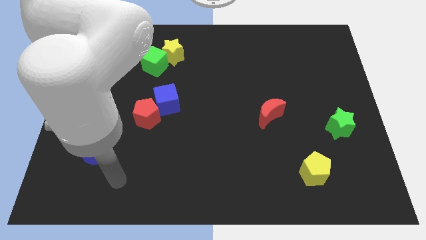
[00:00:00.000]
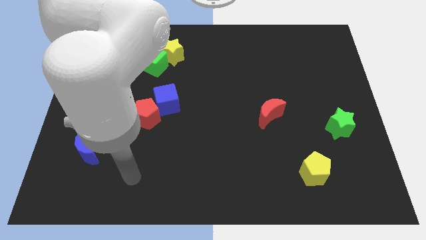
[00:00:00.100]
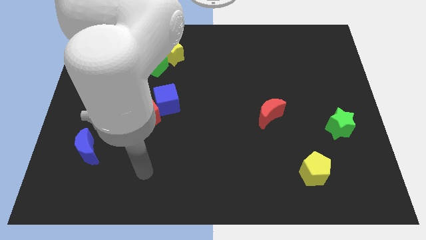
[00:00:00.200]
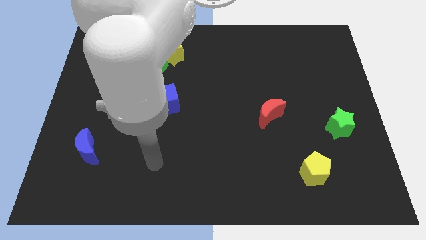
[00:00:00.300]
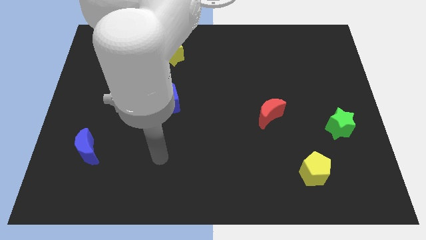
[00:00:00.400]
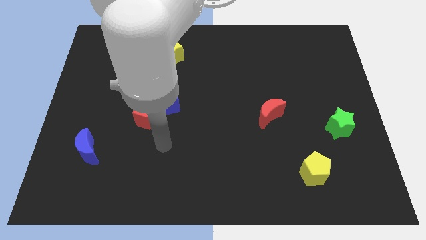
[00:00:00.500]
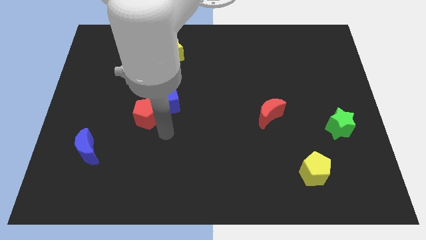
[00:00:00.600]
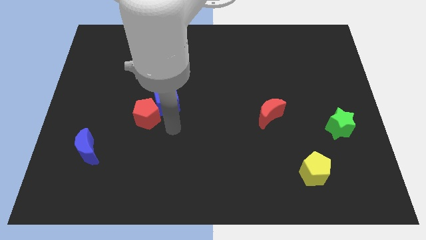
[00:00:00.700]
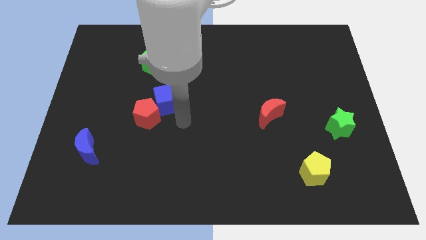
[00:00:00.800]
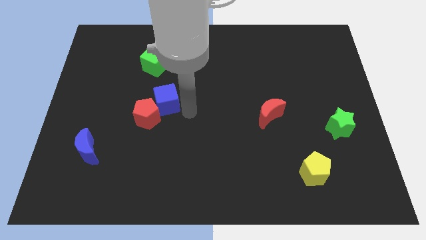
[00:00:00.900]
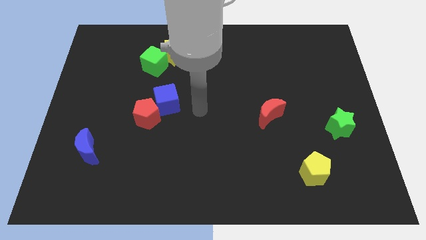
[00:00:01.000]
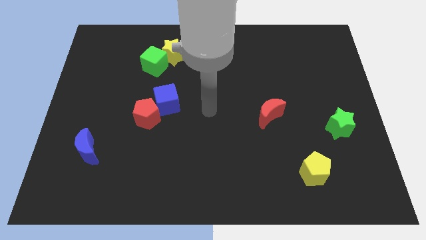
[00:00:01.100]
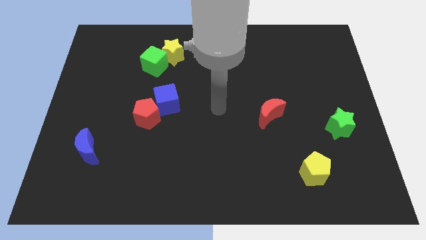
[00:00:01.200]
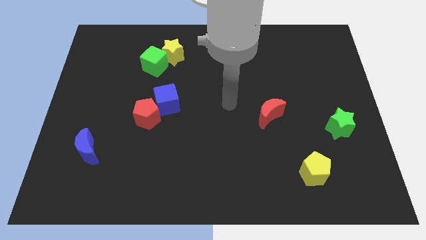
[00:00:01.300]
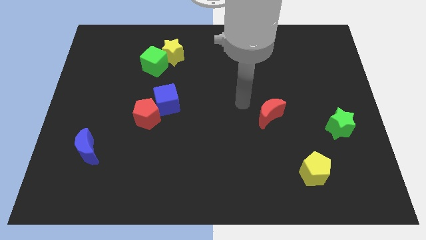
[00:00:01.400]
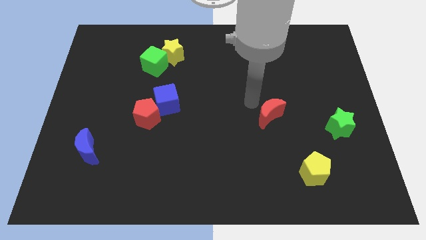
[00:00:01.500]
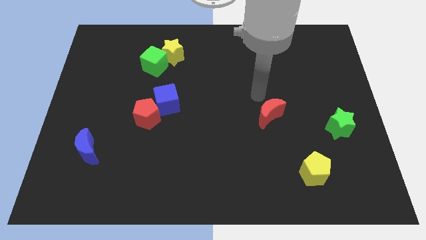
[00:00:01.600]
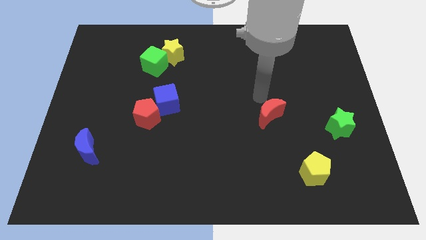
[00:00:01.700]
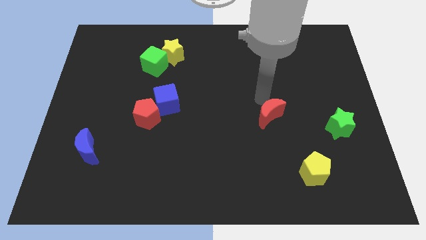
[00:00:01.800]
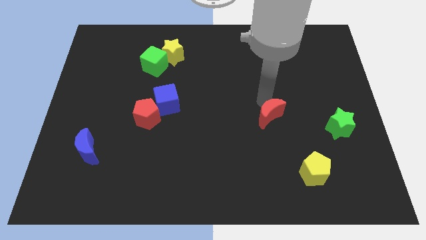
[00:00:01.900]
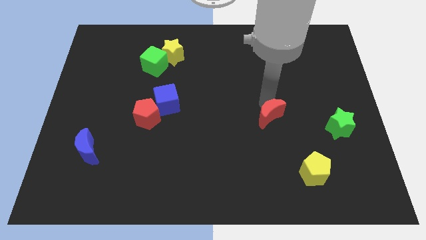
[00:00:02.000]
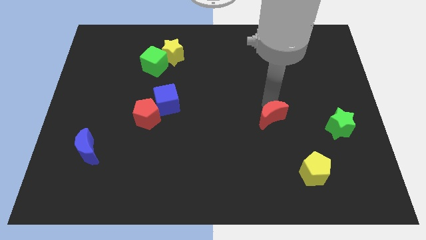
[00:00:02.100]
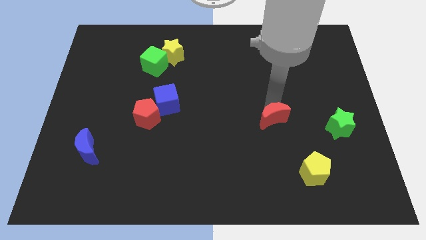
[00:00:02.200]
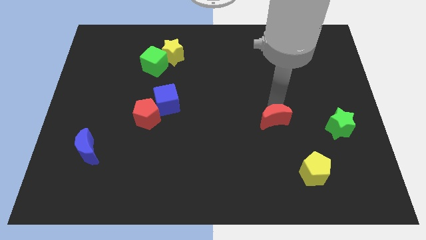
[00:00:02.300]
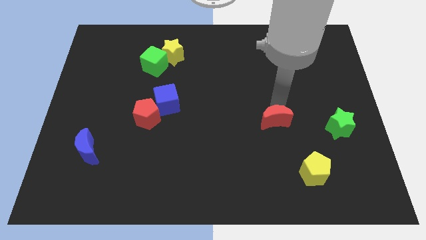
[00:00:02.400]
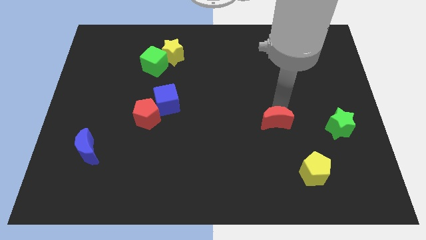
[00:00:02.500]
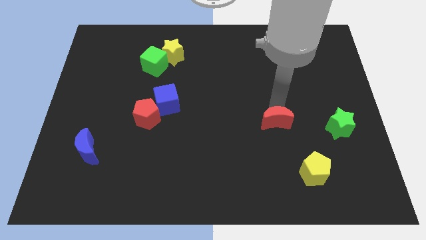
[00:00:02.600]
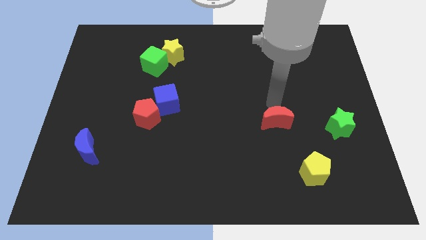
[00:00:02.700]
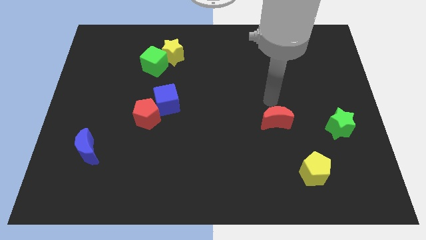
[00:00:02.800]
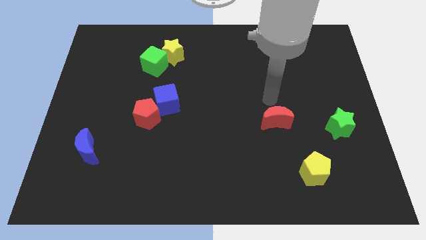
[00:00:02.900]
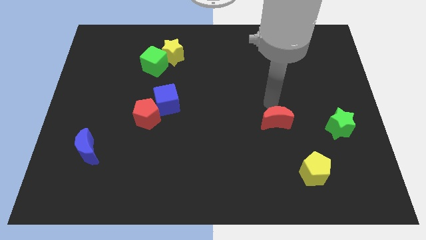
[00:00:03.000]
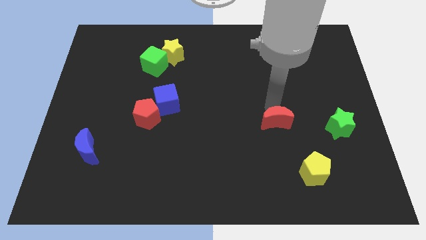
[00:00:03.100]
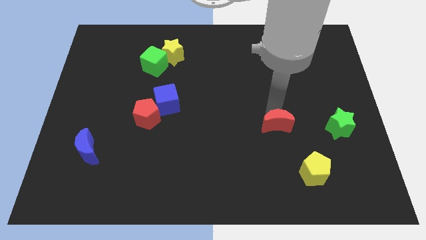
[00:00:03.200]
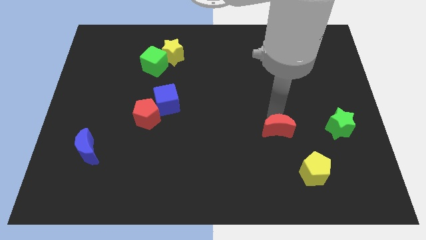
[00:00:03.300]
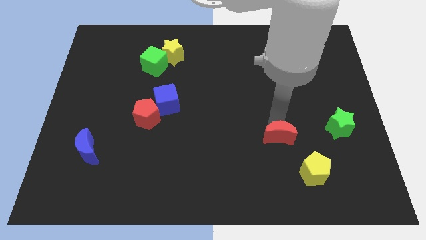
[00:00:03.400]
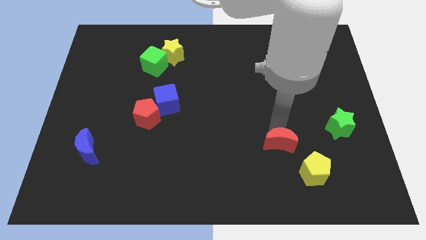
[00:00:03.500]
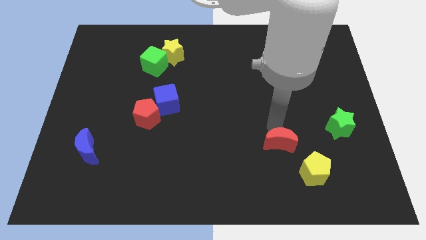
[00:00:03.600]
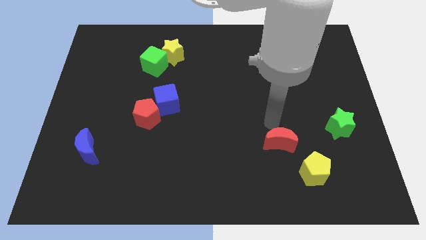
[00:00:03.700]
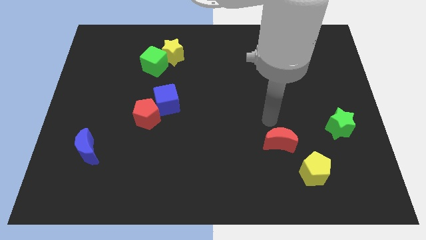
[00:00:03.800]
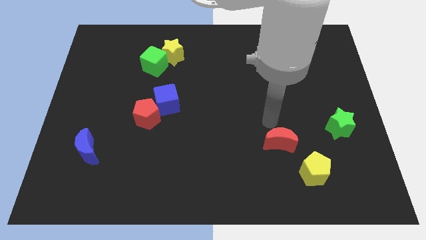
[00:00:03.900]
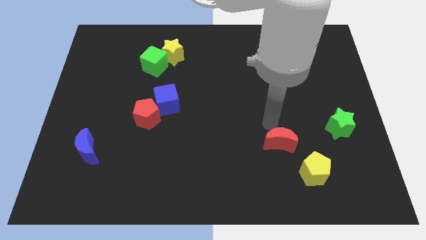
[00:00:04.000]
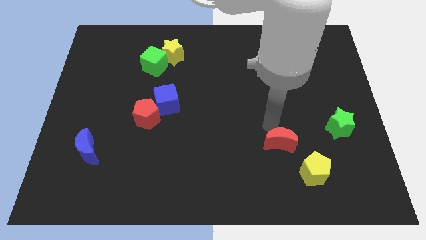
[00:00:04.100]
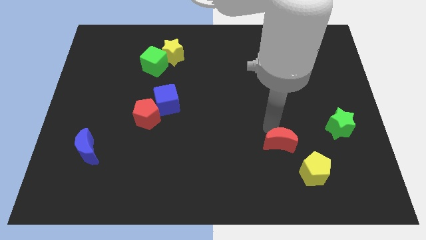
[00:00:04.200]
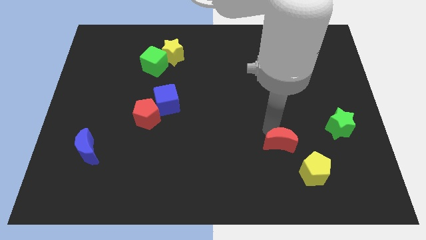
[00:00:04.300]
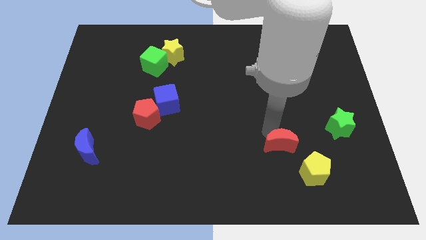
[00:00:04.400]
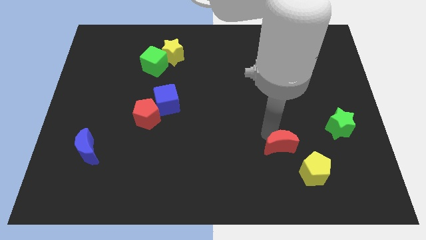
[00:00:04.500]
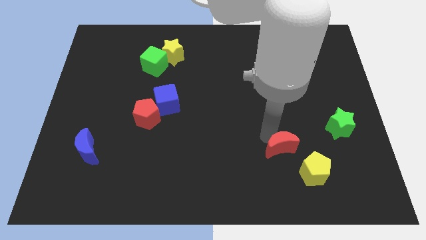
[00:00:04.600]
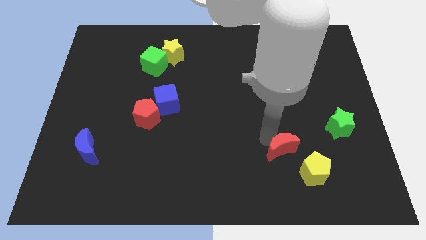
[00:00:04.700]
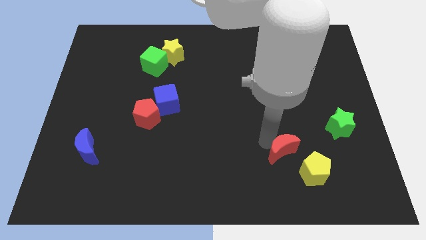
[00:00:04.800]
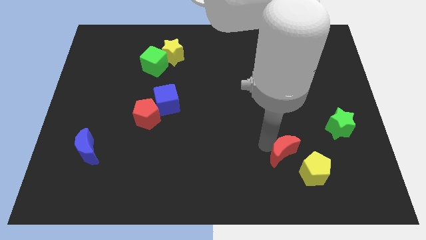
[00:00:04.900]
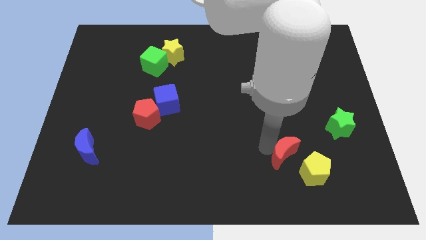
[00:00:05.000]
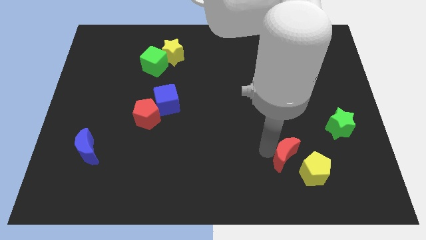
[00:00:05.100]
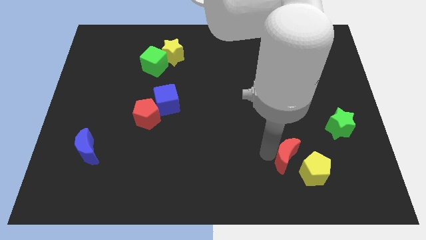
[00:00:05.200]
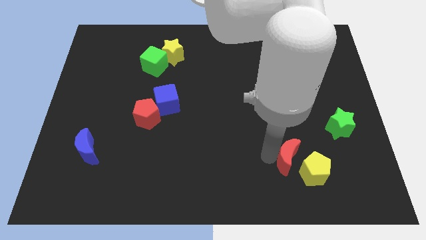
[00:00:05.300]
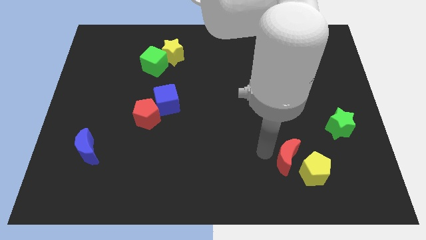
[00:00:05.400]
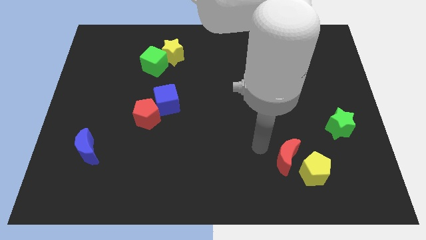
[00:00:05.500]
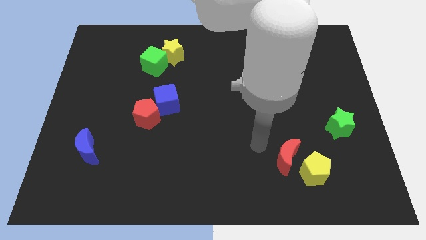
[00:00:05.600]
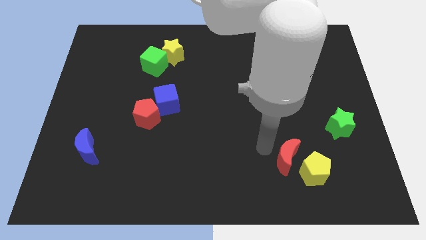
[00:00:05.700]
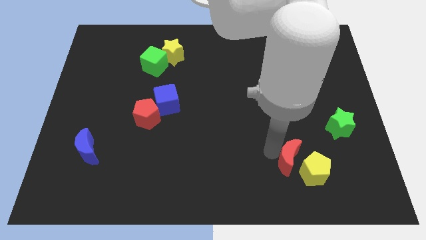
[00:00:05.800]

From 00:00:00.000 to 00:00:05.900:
push the red moon close to the yellow pentagon
